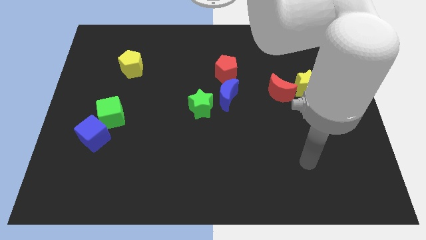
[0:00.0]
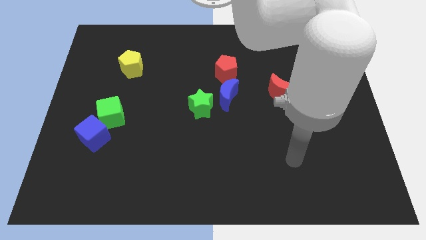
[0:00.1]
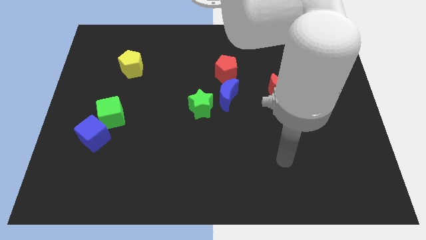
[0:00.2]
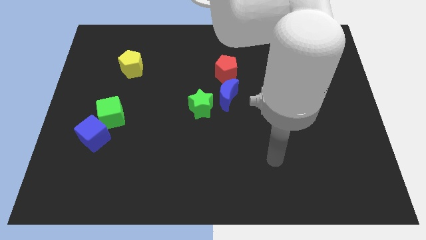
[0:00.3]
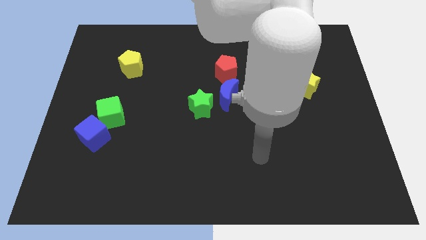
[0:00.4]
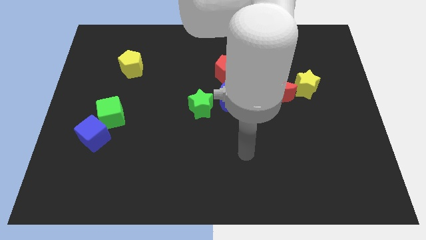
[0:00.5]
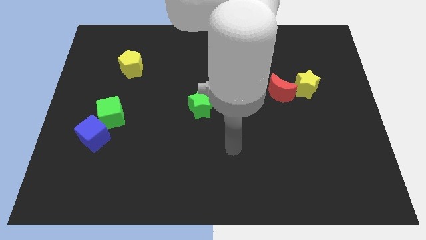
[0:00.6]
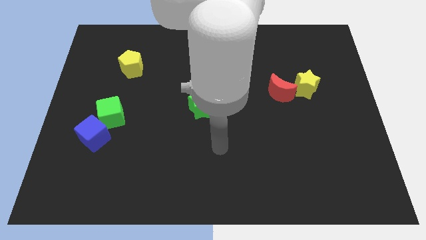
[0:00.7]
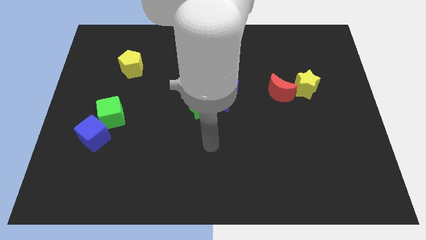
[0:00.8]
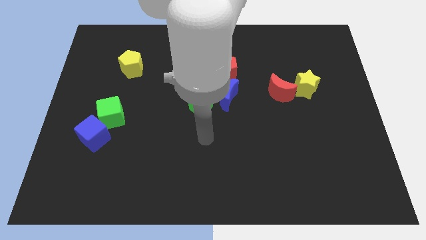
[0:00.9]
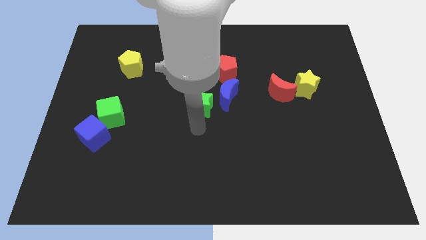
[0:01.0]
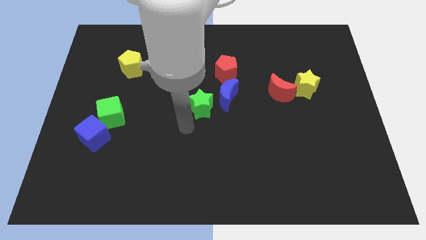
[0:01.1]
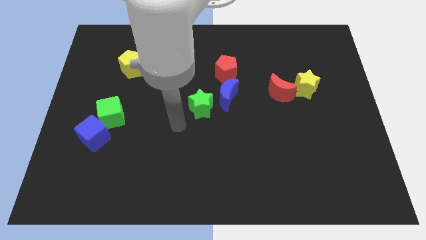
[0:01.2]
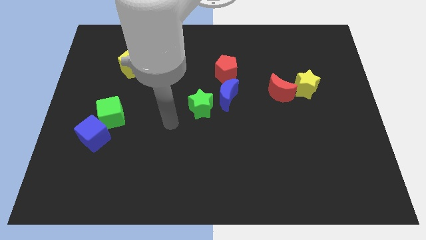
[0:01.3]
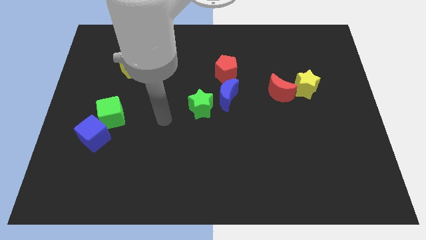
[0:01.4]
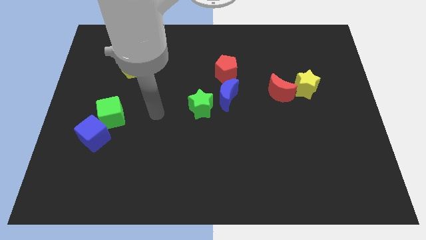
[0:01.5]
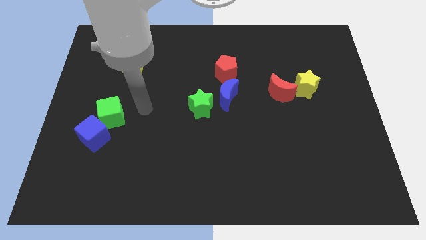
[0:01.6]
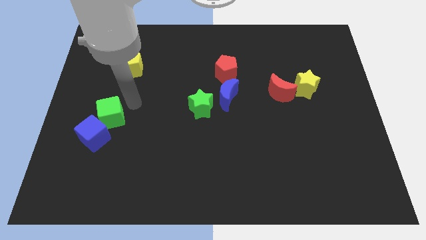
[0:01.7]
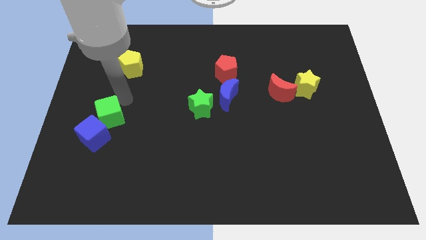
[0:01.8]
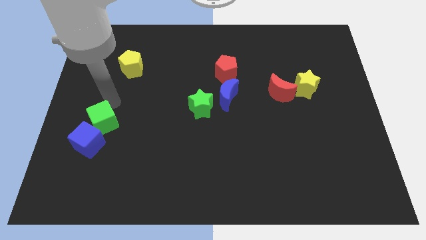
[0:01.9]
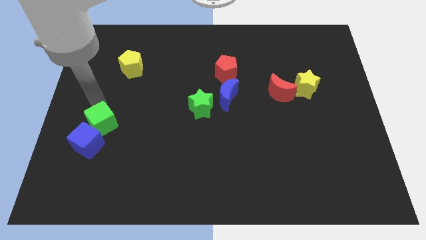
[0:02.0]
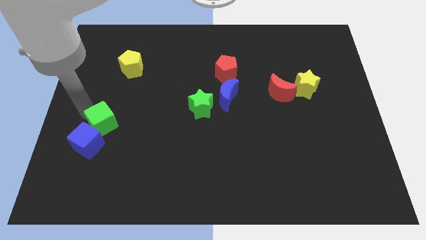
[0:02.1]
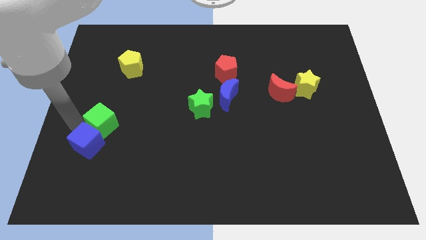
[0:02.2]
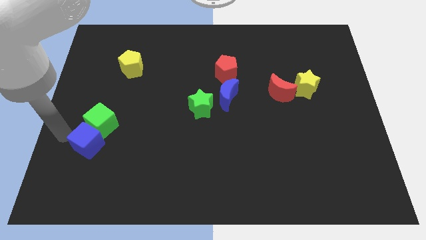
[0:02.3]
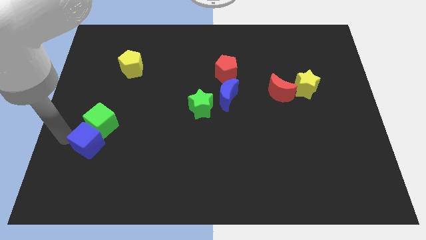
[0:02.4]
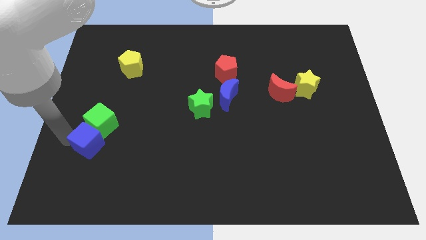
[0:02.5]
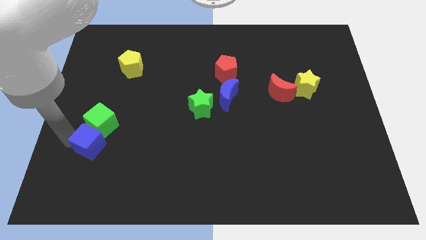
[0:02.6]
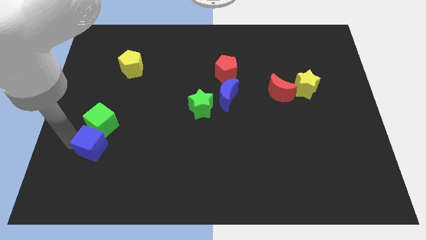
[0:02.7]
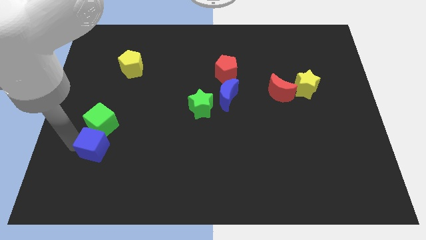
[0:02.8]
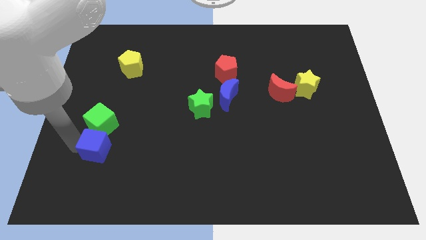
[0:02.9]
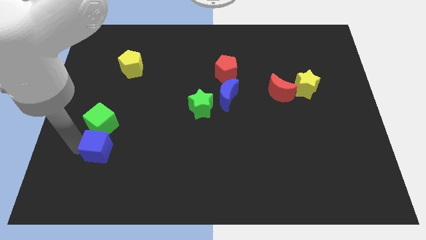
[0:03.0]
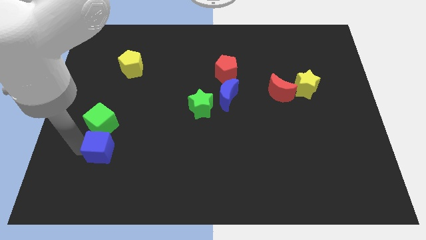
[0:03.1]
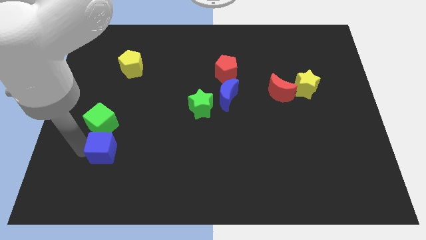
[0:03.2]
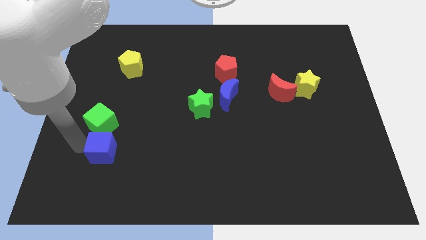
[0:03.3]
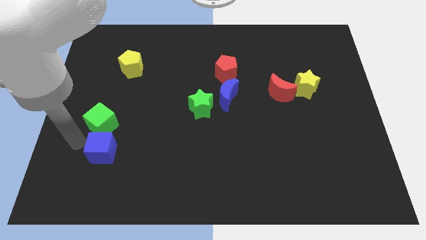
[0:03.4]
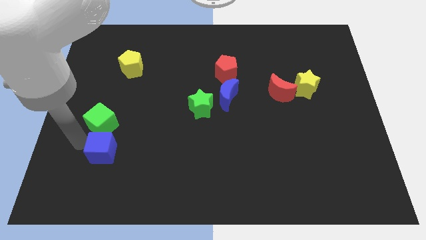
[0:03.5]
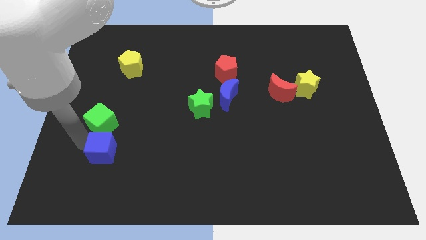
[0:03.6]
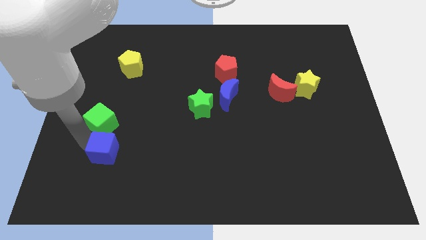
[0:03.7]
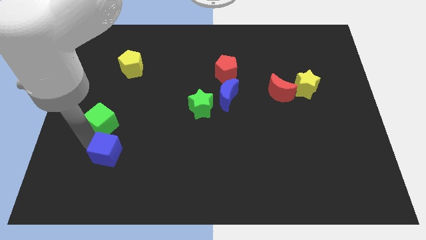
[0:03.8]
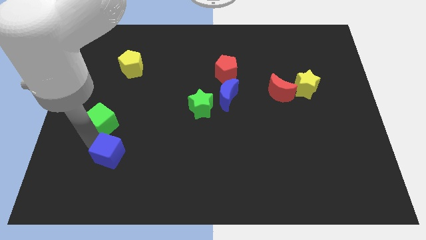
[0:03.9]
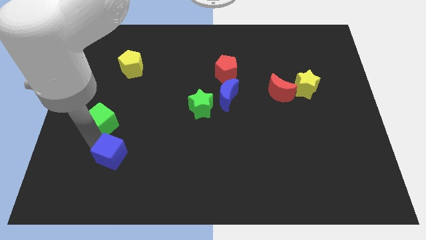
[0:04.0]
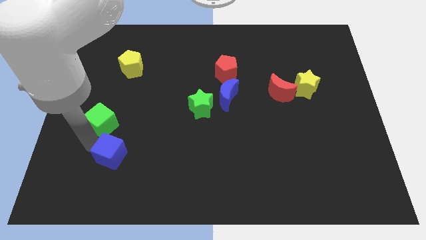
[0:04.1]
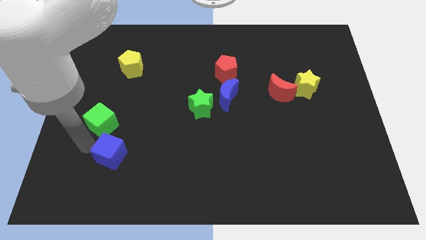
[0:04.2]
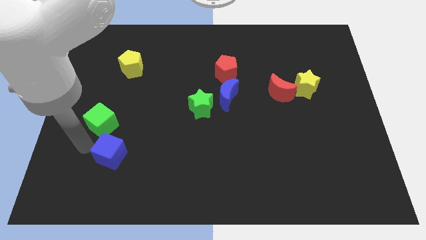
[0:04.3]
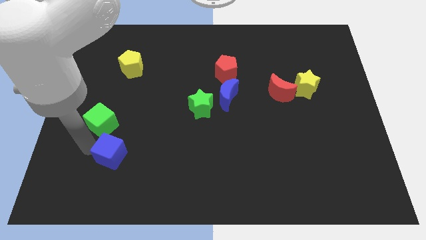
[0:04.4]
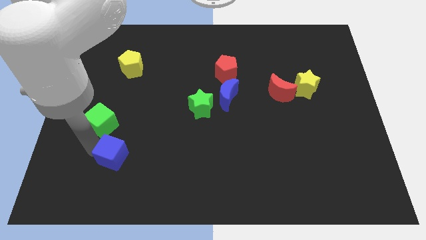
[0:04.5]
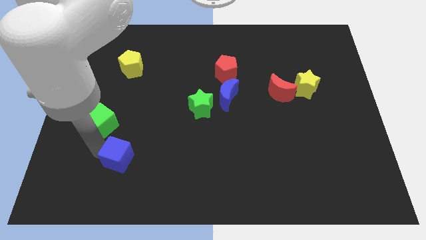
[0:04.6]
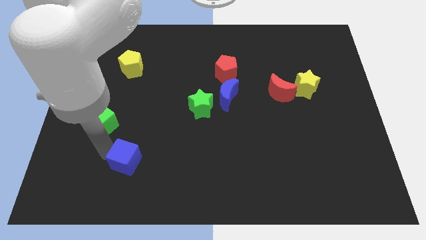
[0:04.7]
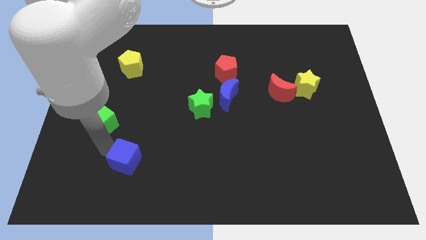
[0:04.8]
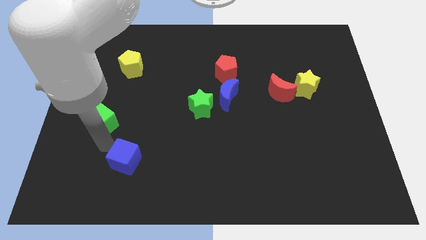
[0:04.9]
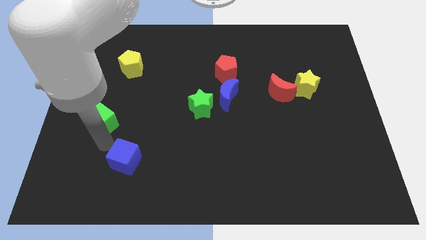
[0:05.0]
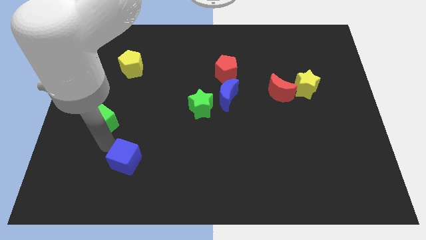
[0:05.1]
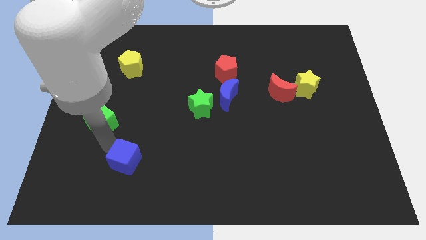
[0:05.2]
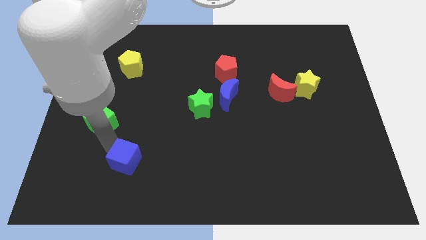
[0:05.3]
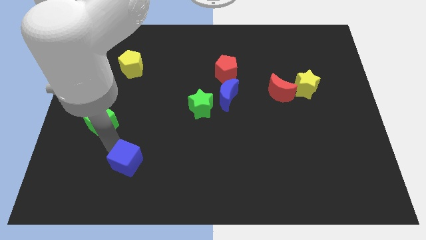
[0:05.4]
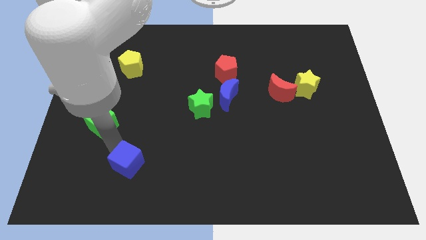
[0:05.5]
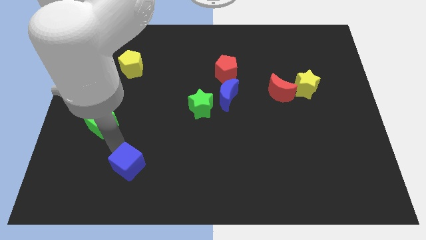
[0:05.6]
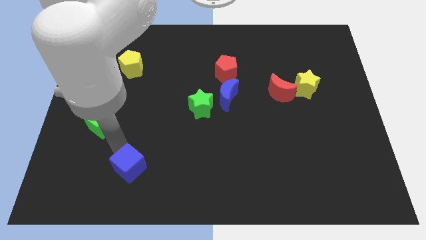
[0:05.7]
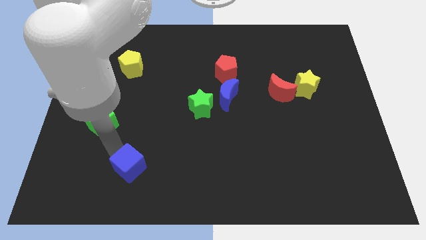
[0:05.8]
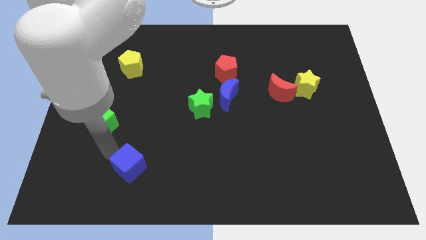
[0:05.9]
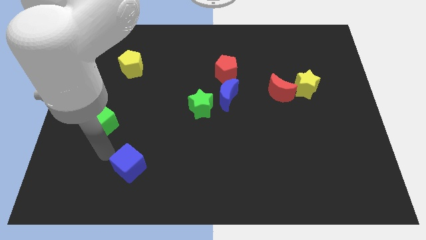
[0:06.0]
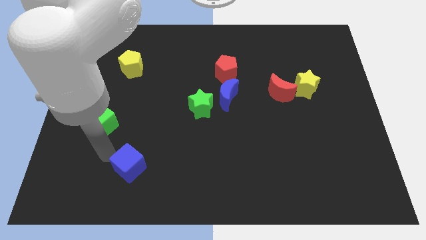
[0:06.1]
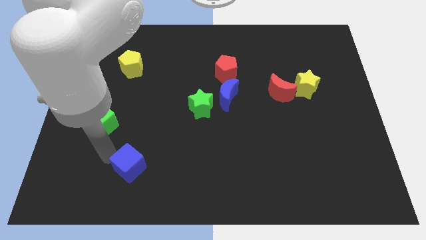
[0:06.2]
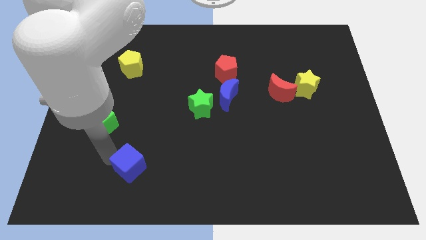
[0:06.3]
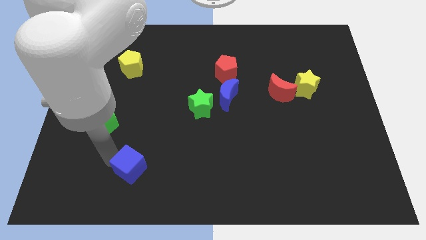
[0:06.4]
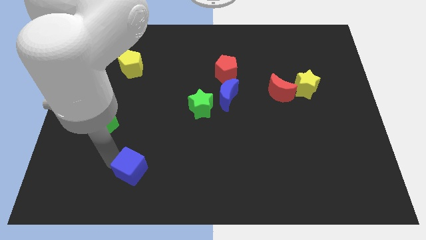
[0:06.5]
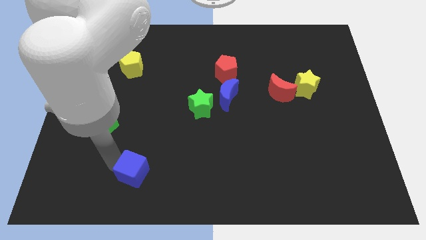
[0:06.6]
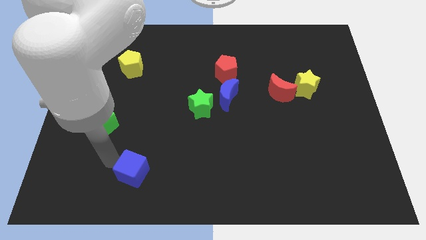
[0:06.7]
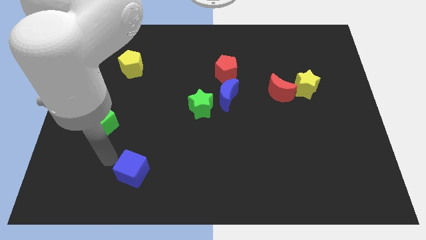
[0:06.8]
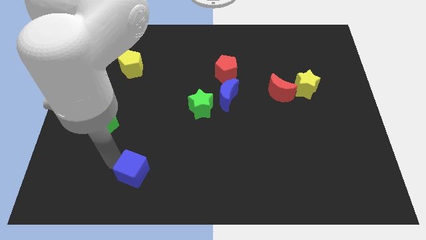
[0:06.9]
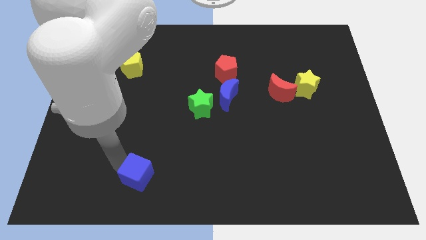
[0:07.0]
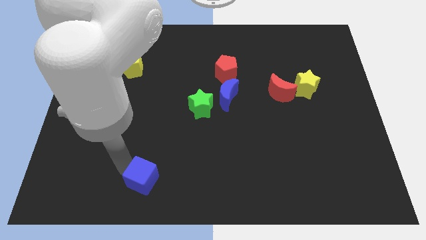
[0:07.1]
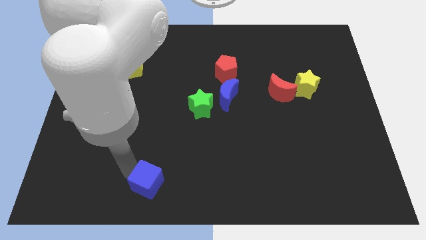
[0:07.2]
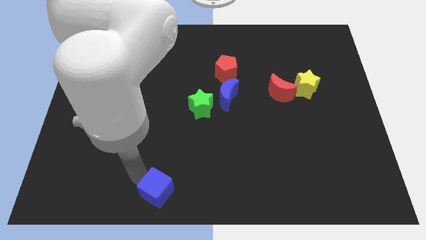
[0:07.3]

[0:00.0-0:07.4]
slide the blue cube to the bottom side
